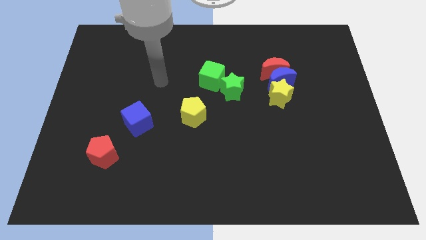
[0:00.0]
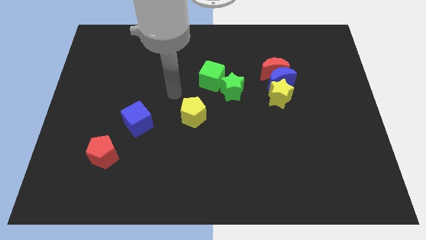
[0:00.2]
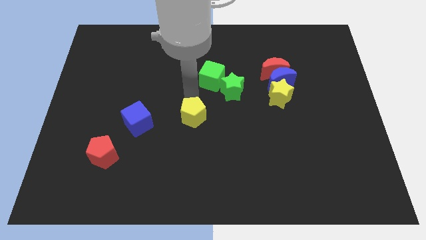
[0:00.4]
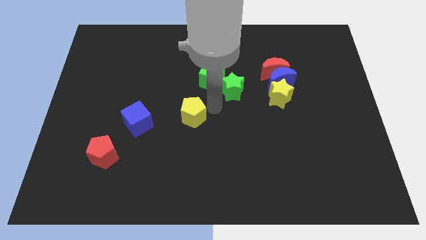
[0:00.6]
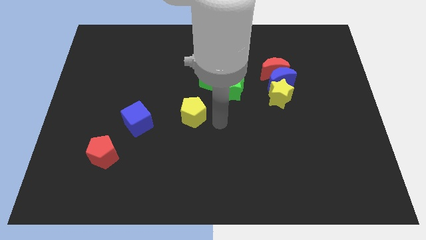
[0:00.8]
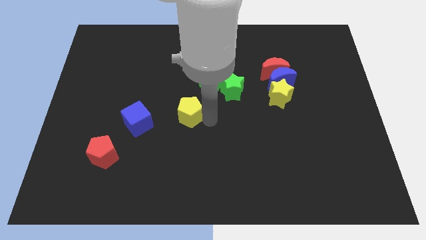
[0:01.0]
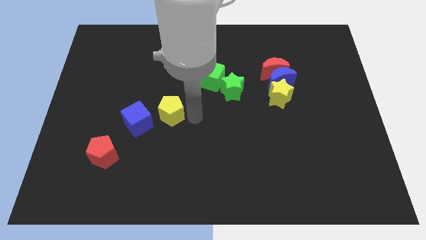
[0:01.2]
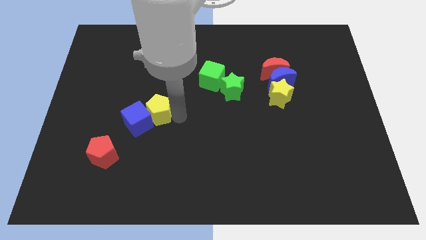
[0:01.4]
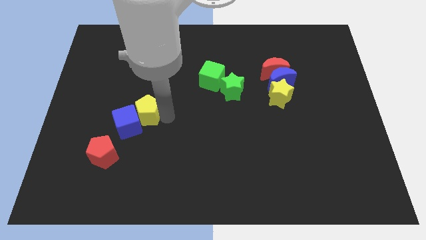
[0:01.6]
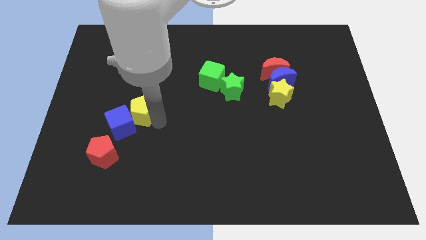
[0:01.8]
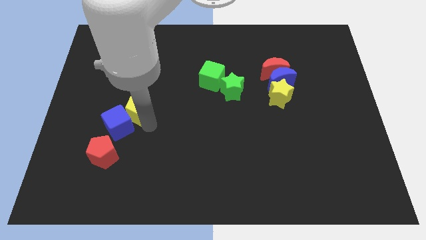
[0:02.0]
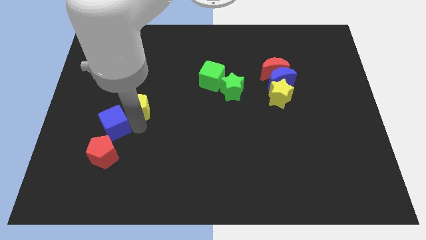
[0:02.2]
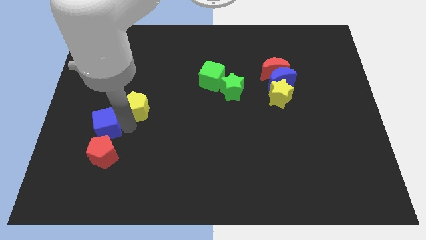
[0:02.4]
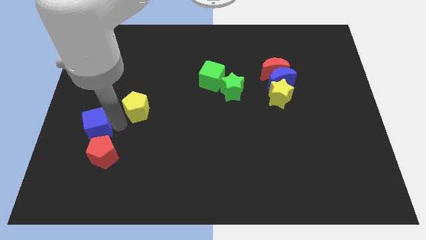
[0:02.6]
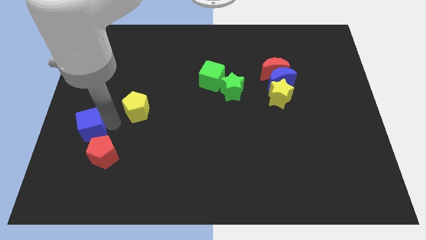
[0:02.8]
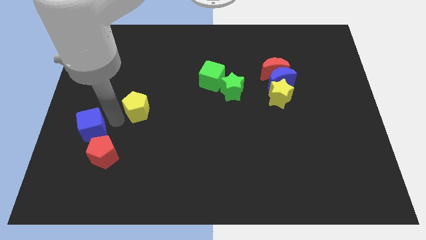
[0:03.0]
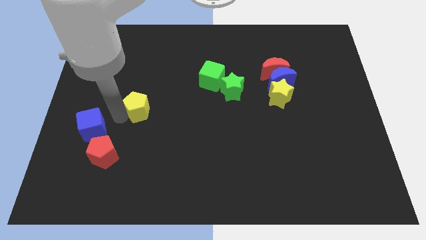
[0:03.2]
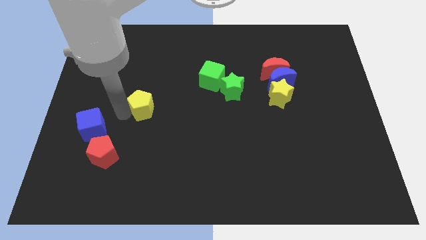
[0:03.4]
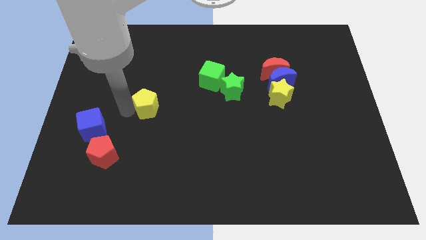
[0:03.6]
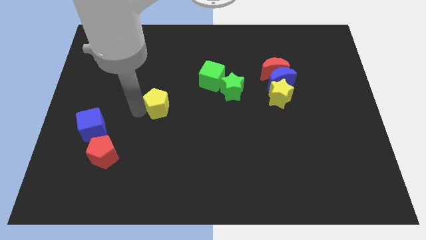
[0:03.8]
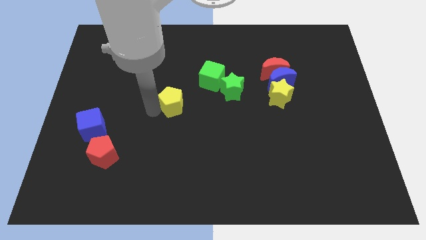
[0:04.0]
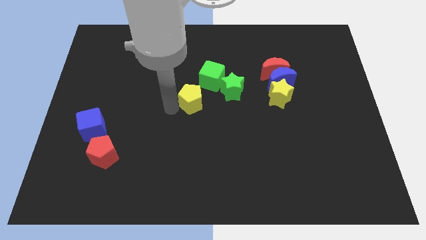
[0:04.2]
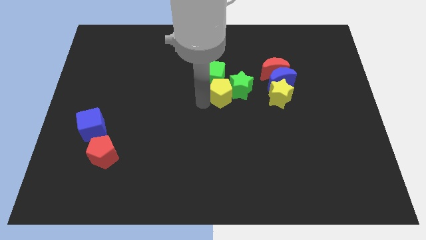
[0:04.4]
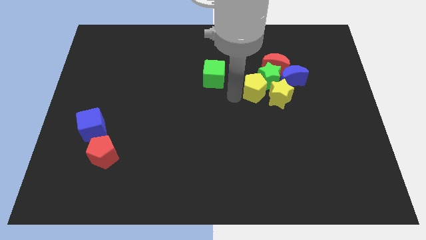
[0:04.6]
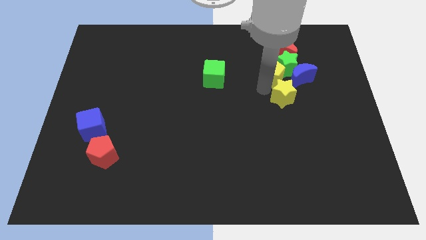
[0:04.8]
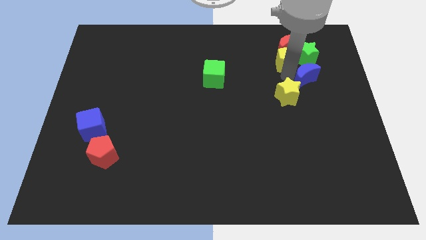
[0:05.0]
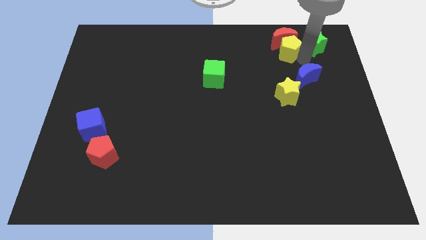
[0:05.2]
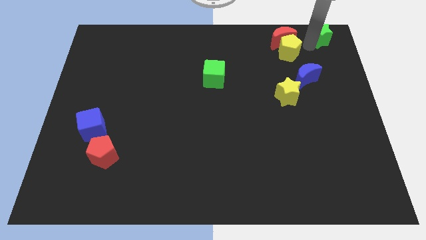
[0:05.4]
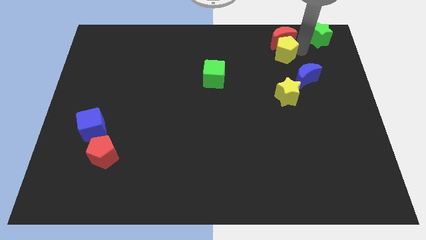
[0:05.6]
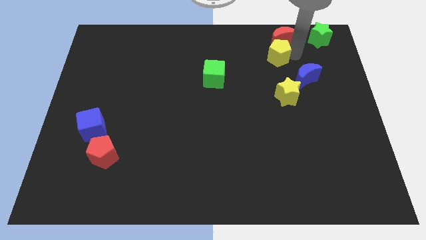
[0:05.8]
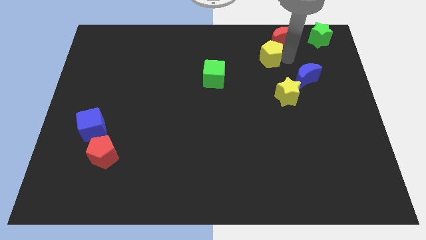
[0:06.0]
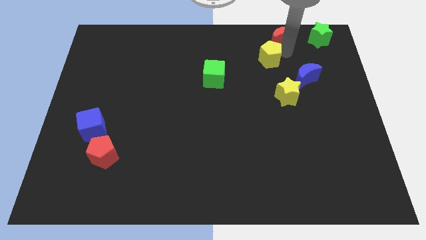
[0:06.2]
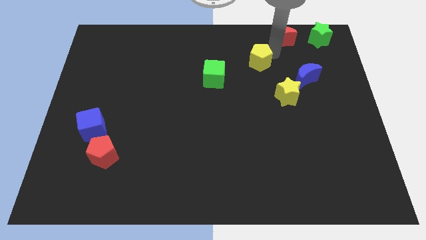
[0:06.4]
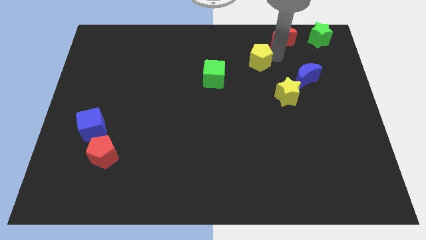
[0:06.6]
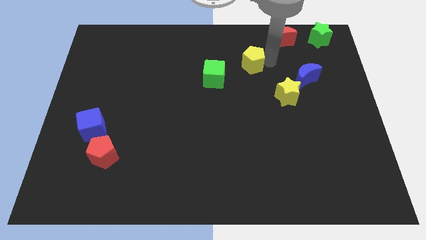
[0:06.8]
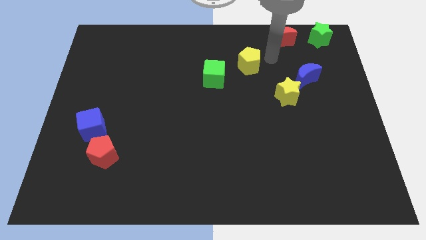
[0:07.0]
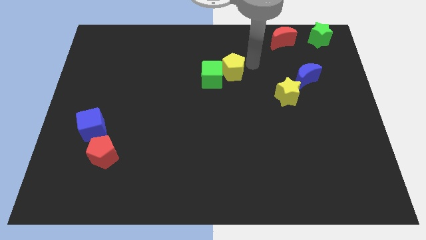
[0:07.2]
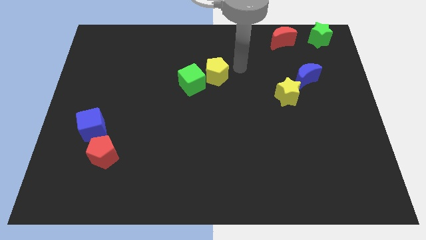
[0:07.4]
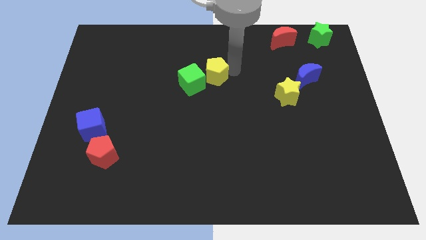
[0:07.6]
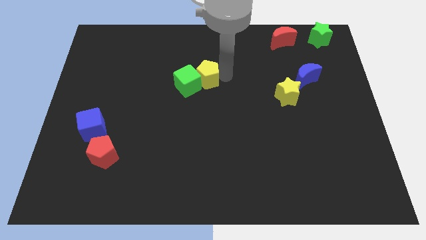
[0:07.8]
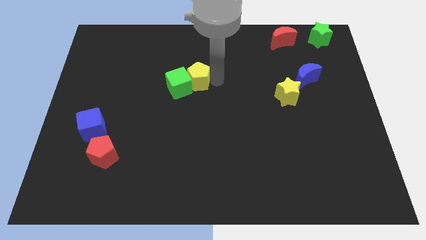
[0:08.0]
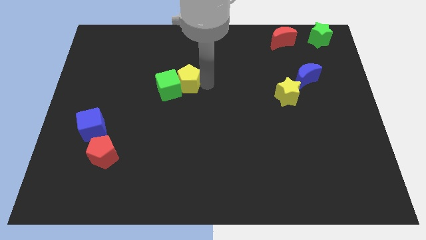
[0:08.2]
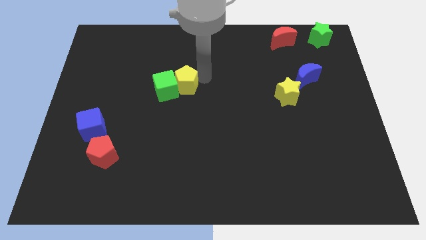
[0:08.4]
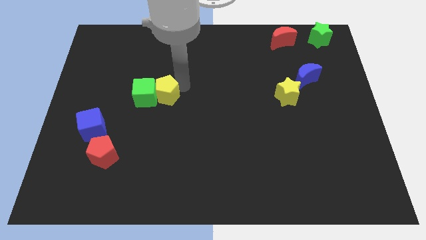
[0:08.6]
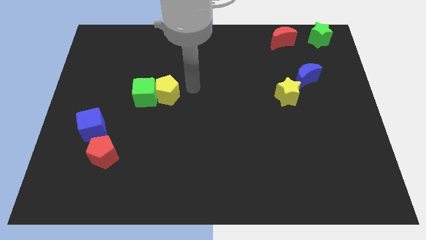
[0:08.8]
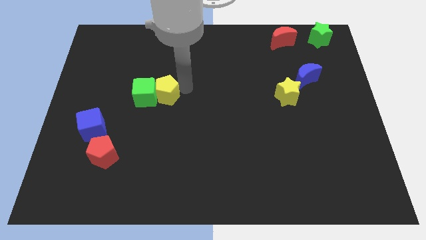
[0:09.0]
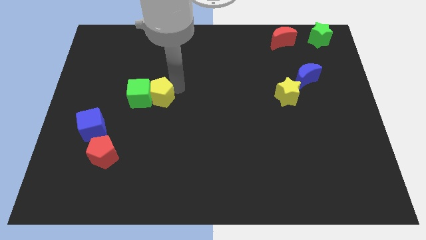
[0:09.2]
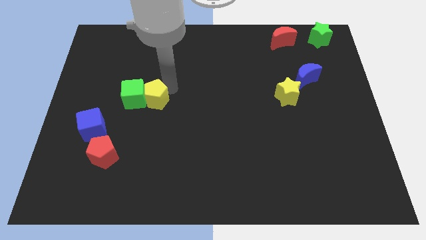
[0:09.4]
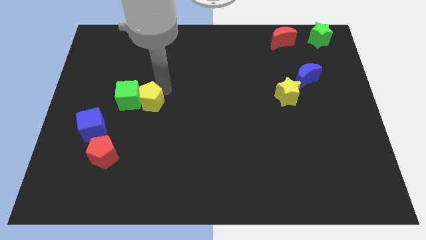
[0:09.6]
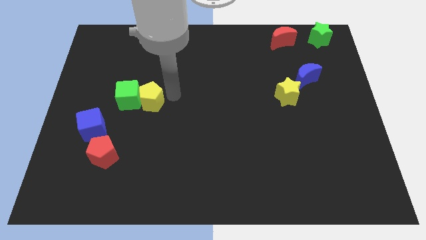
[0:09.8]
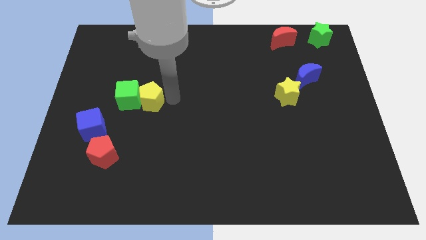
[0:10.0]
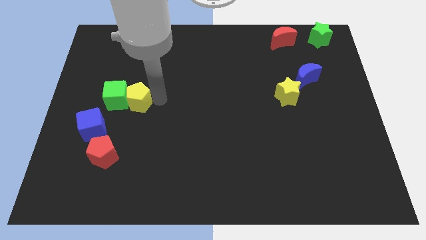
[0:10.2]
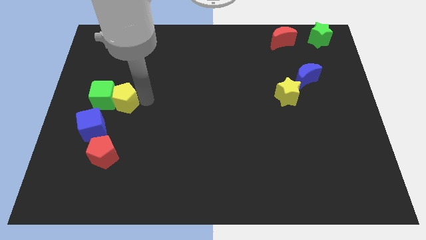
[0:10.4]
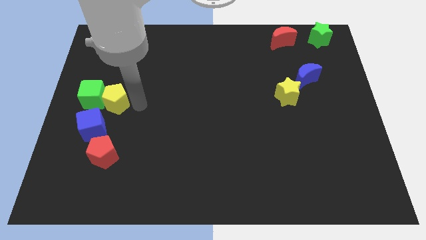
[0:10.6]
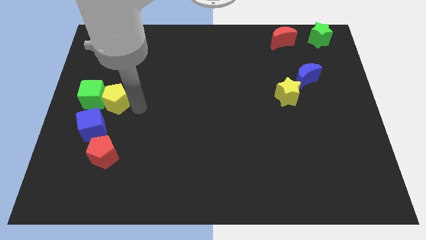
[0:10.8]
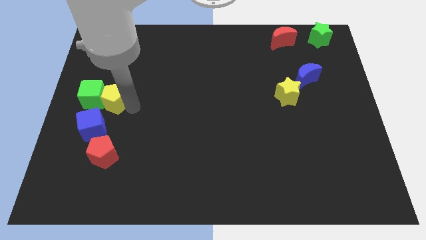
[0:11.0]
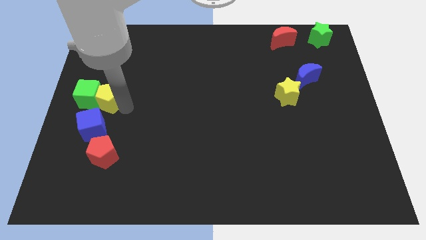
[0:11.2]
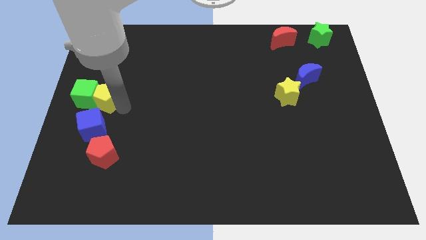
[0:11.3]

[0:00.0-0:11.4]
push the yellow pentagon to the center left
